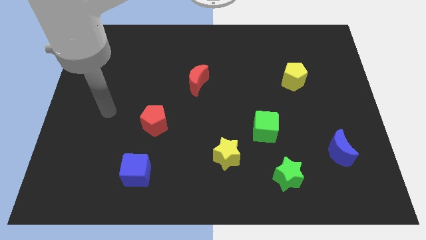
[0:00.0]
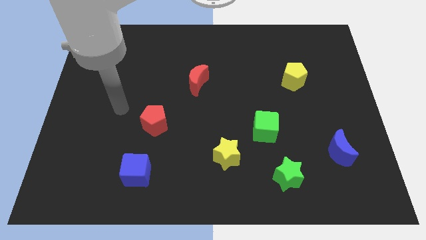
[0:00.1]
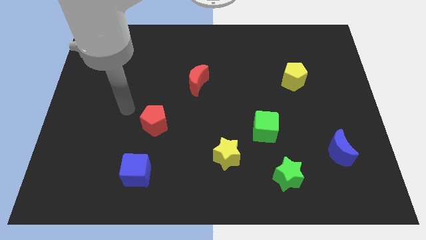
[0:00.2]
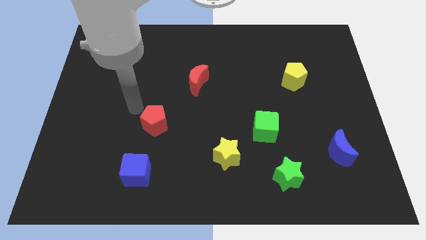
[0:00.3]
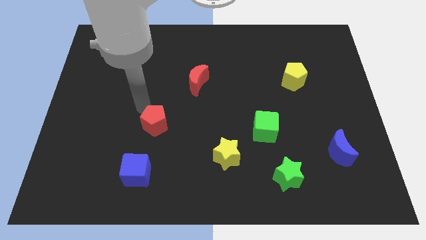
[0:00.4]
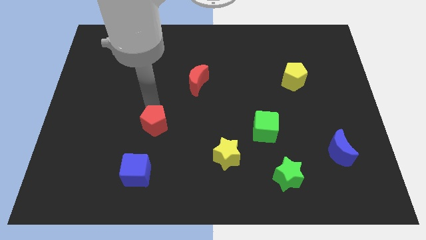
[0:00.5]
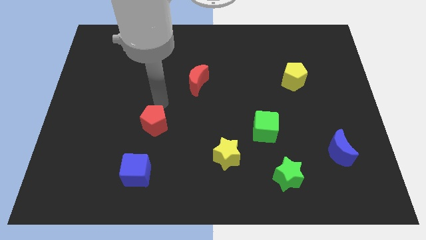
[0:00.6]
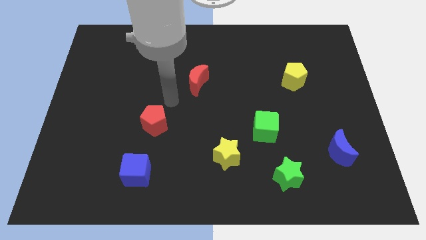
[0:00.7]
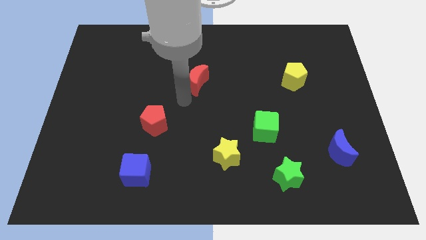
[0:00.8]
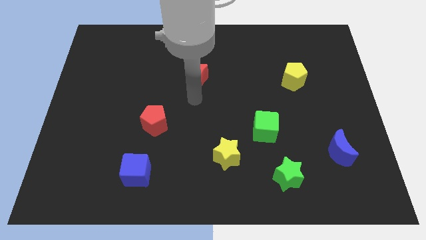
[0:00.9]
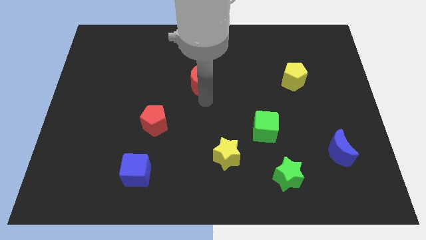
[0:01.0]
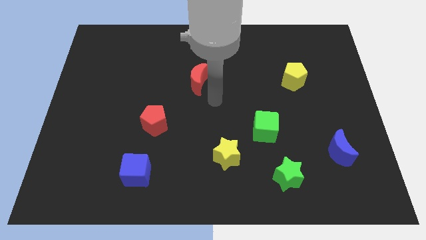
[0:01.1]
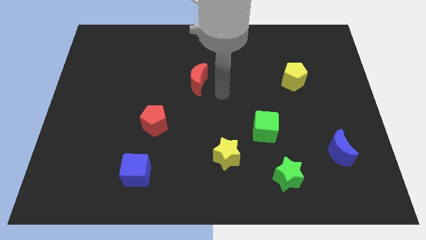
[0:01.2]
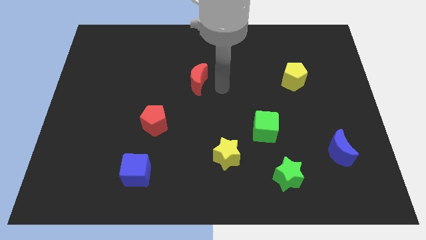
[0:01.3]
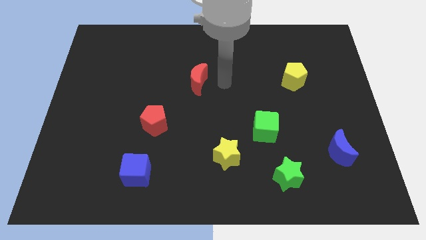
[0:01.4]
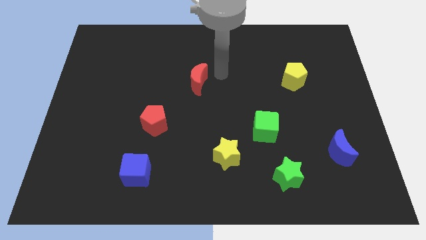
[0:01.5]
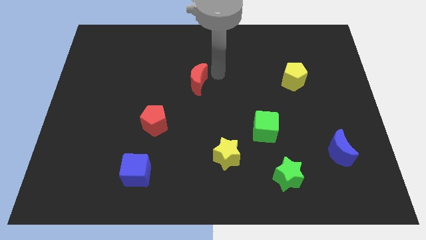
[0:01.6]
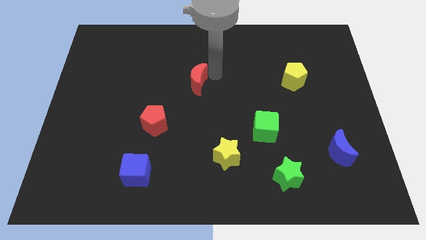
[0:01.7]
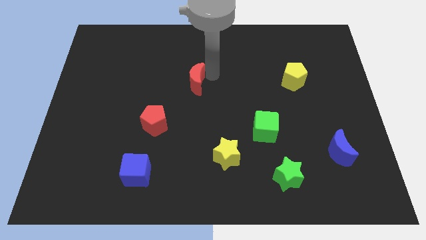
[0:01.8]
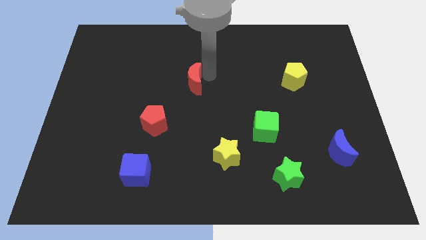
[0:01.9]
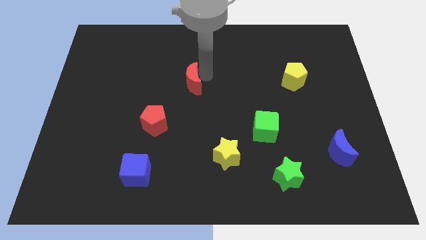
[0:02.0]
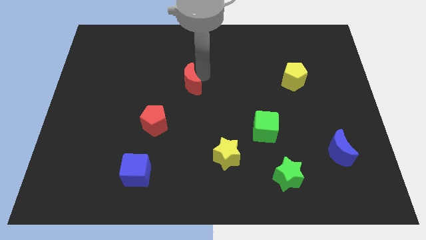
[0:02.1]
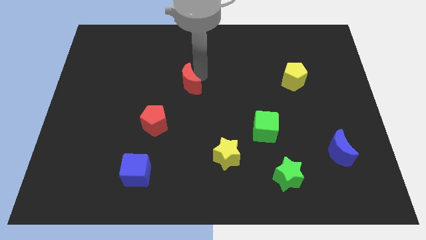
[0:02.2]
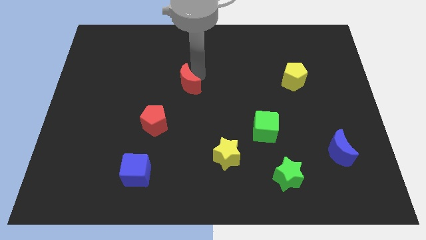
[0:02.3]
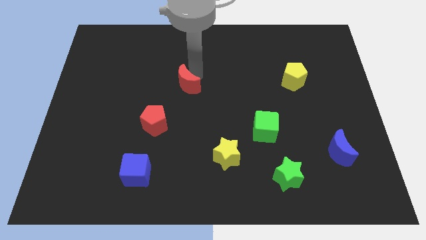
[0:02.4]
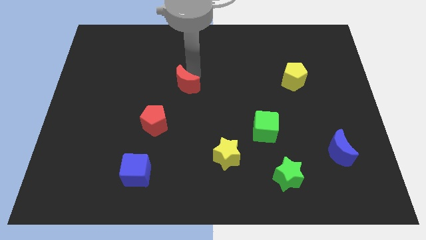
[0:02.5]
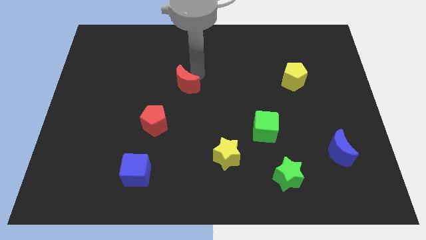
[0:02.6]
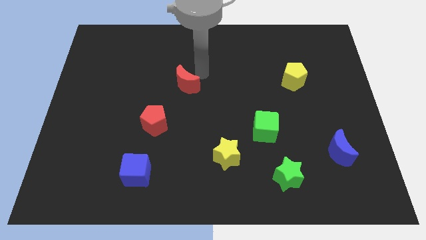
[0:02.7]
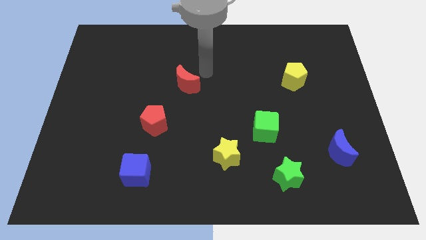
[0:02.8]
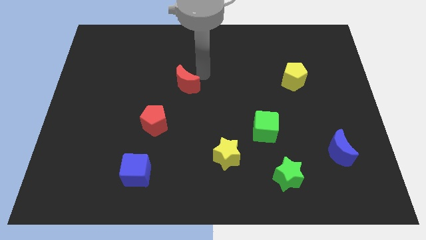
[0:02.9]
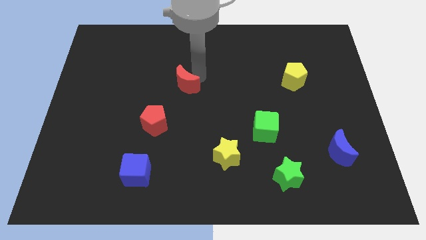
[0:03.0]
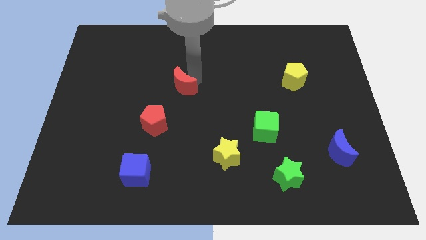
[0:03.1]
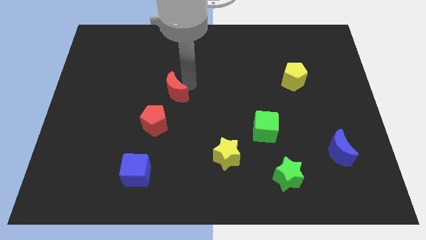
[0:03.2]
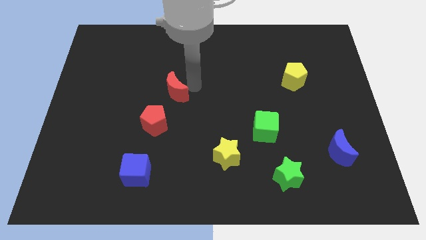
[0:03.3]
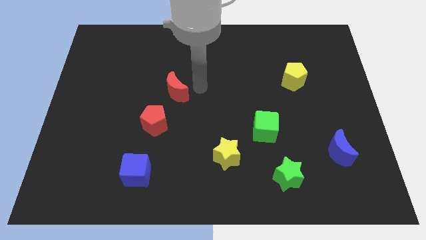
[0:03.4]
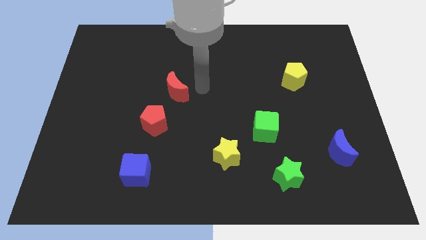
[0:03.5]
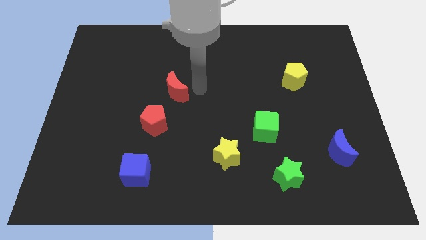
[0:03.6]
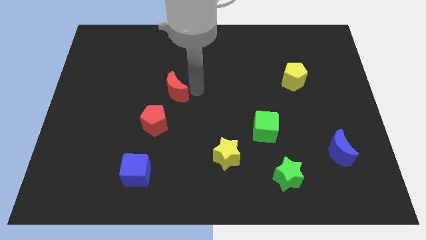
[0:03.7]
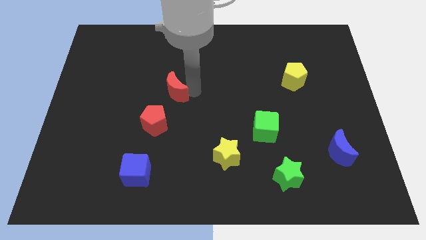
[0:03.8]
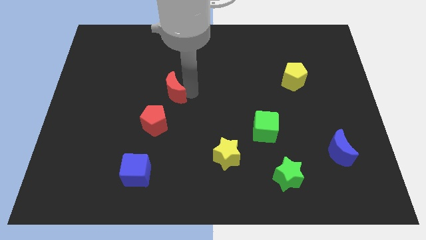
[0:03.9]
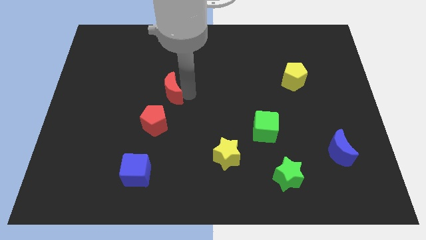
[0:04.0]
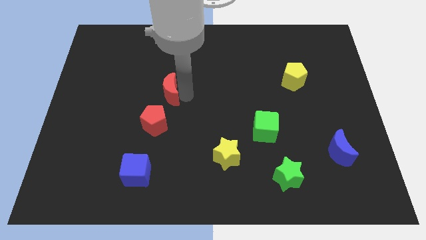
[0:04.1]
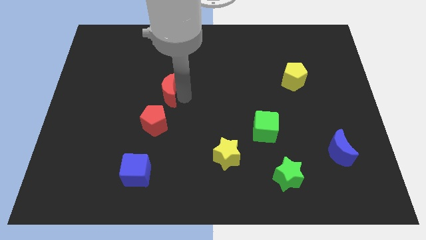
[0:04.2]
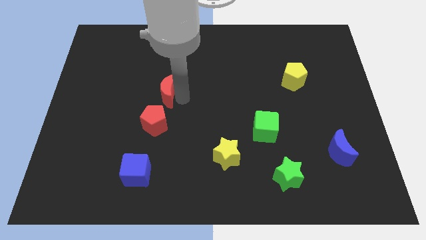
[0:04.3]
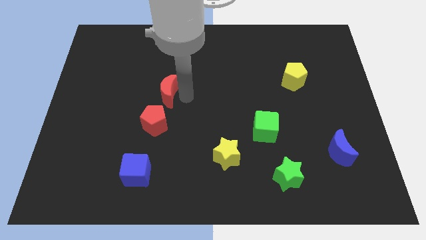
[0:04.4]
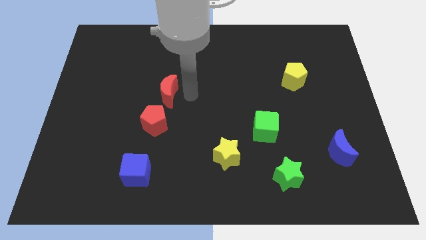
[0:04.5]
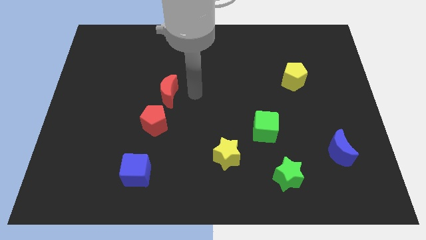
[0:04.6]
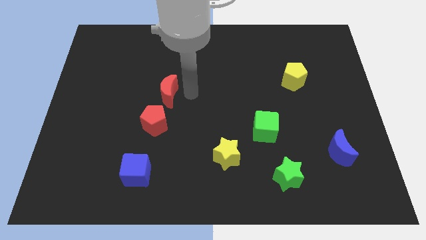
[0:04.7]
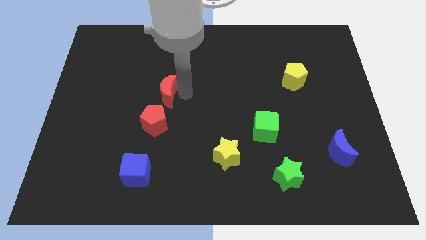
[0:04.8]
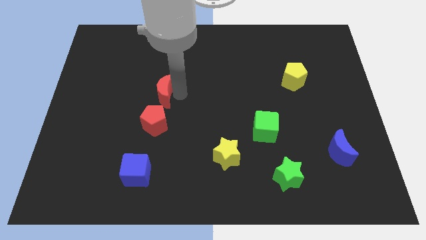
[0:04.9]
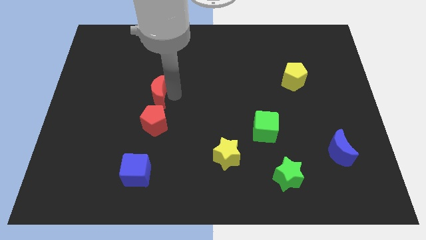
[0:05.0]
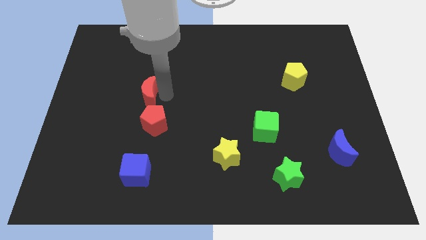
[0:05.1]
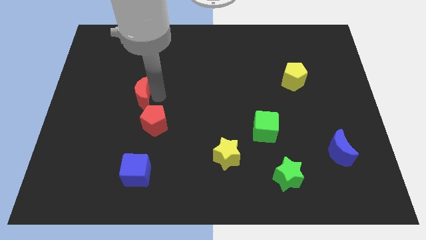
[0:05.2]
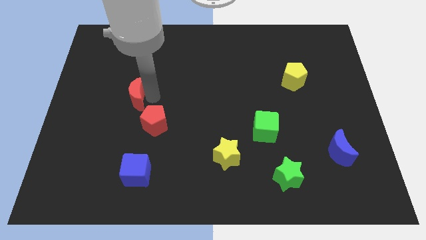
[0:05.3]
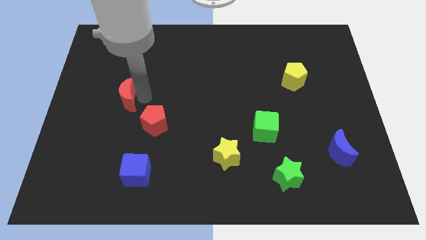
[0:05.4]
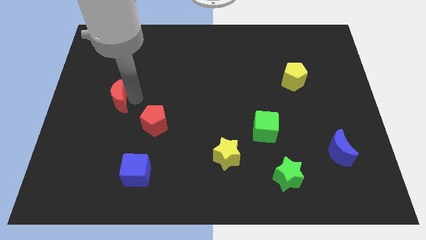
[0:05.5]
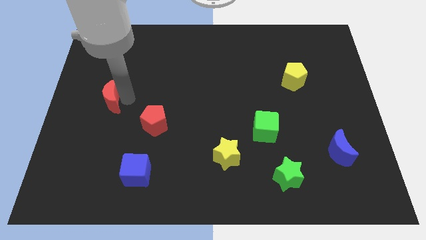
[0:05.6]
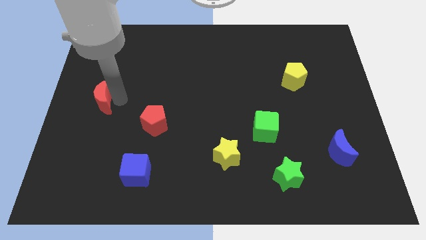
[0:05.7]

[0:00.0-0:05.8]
slide the red moon to the center left
